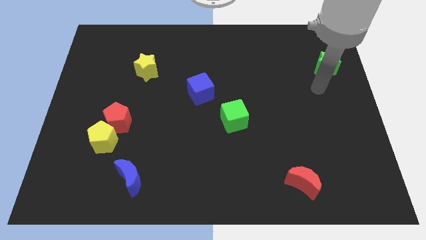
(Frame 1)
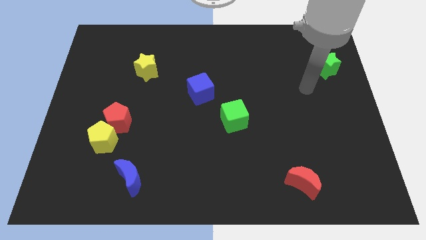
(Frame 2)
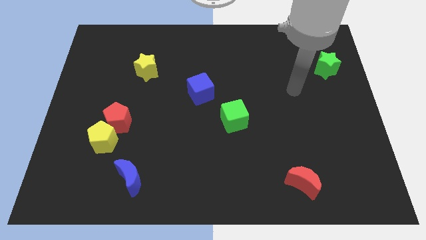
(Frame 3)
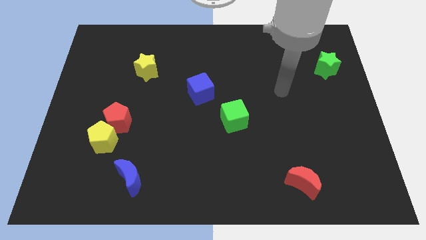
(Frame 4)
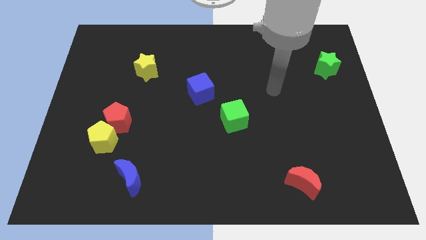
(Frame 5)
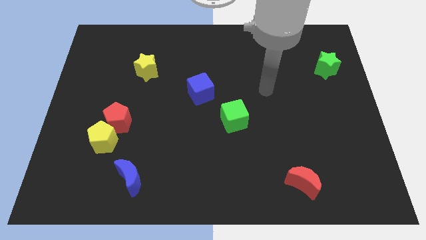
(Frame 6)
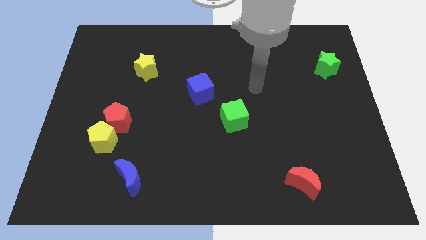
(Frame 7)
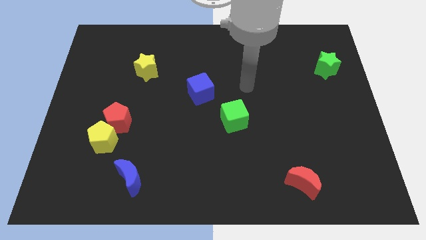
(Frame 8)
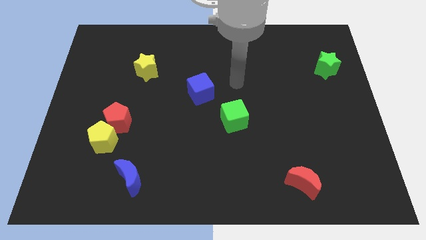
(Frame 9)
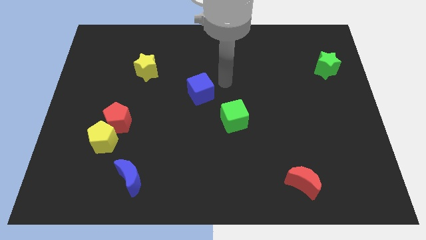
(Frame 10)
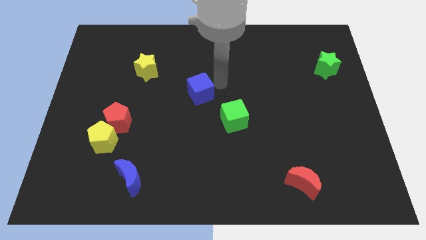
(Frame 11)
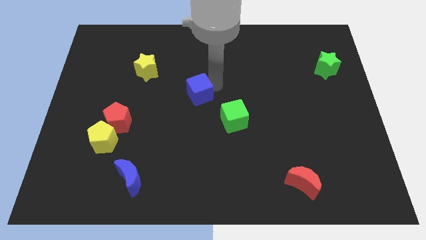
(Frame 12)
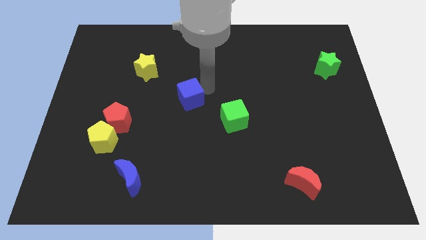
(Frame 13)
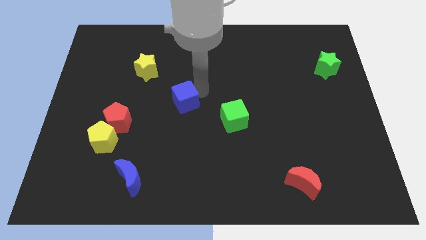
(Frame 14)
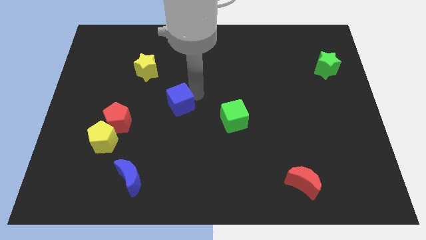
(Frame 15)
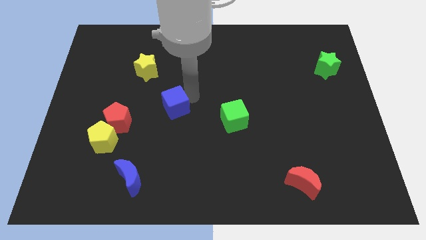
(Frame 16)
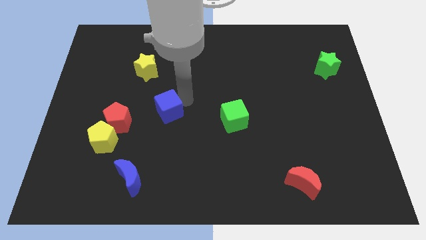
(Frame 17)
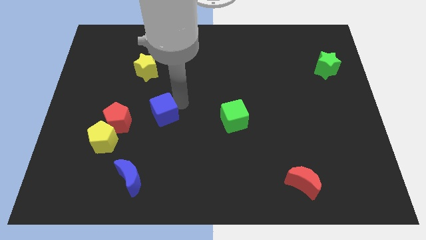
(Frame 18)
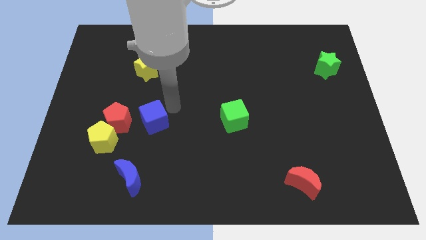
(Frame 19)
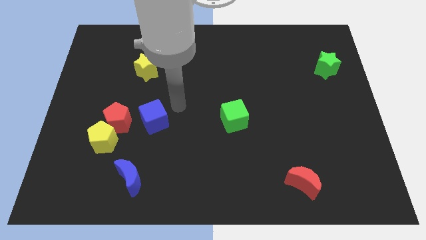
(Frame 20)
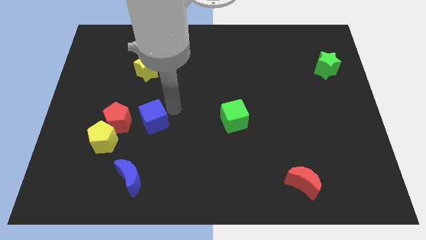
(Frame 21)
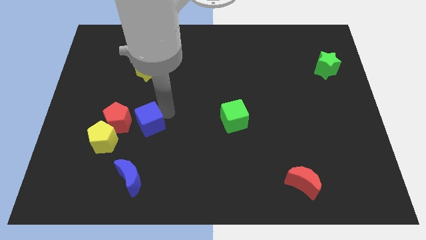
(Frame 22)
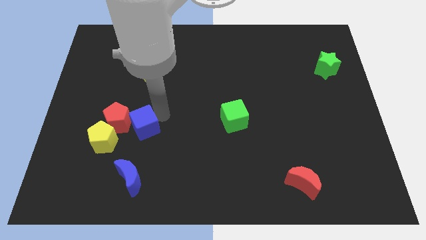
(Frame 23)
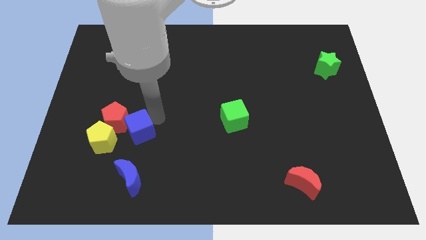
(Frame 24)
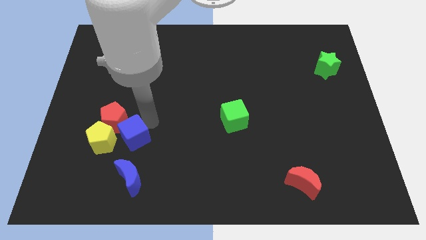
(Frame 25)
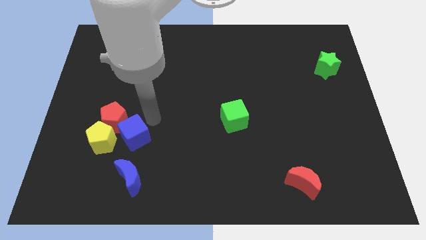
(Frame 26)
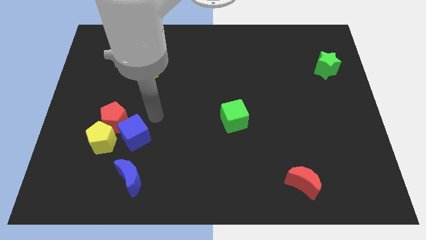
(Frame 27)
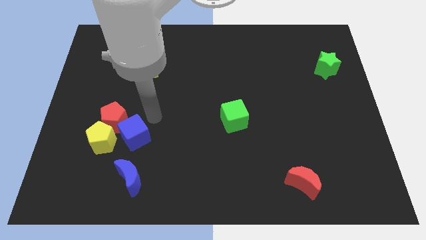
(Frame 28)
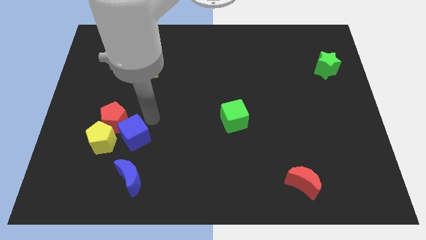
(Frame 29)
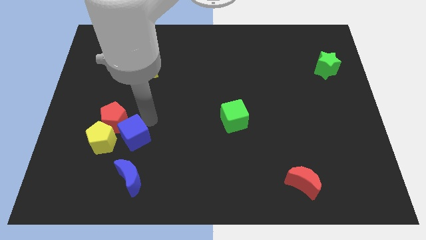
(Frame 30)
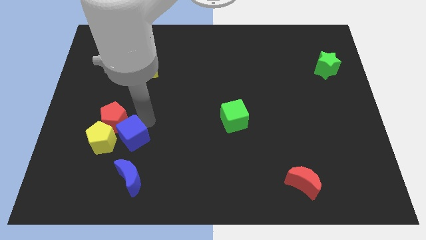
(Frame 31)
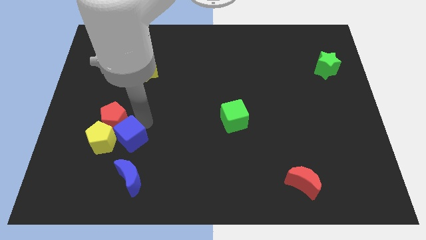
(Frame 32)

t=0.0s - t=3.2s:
push the blue cube down and left

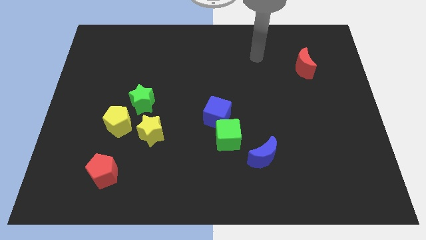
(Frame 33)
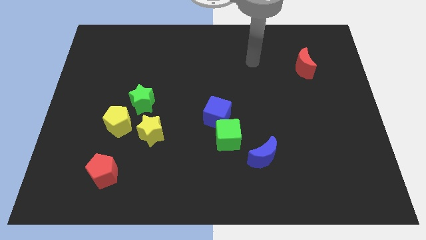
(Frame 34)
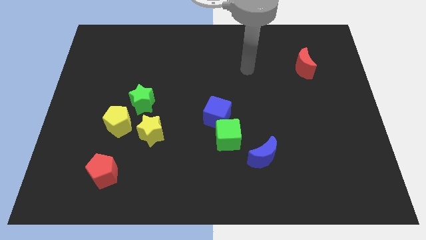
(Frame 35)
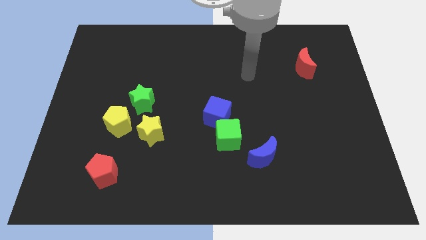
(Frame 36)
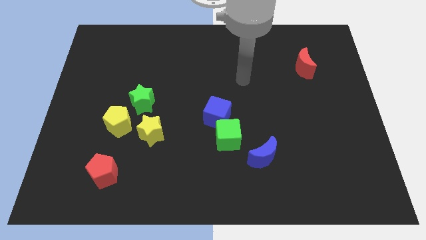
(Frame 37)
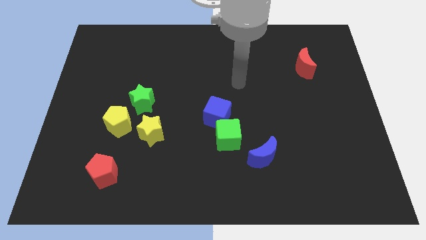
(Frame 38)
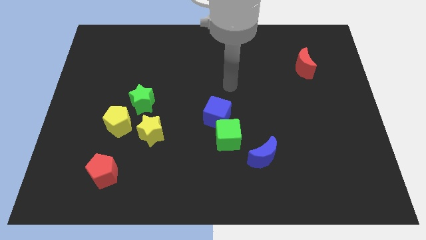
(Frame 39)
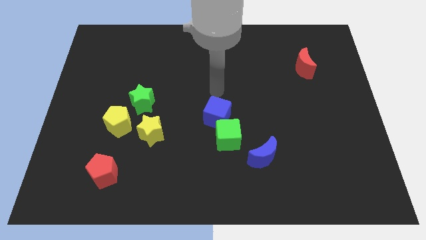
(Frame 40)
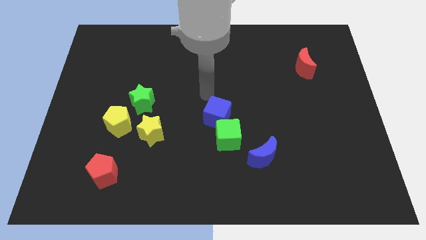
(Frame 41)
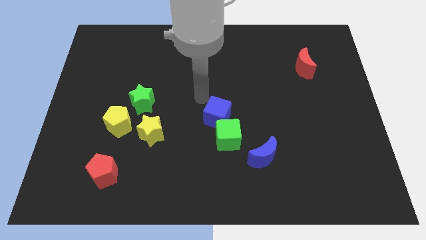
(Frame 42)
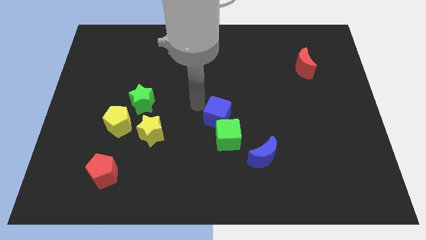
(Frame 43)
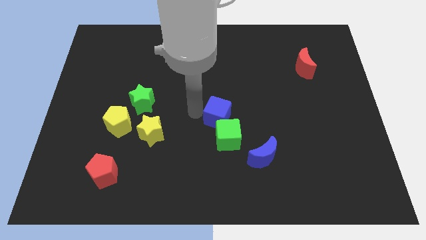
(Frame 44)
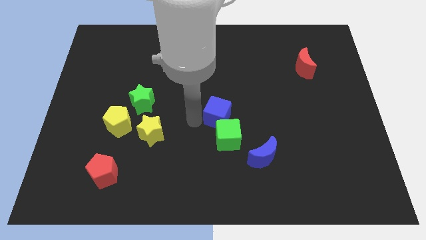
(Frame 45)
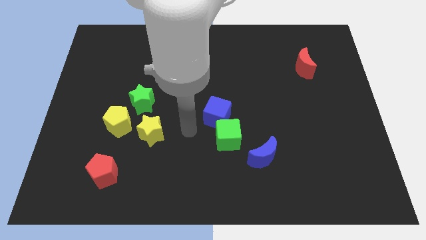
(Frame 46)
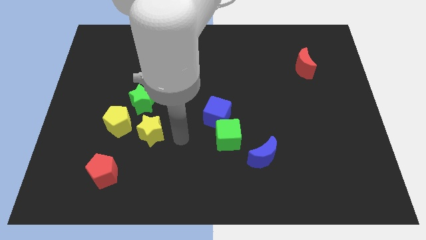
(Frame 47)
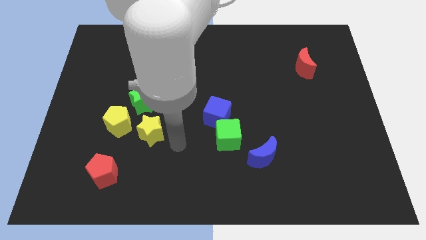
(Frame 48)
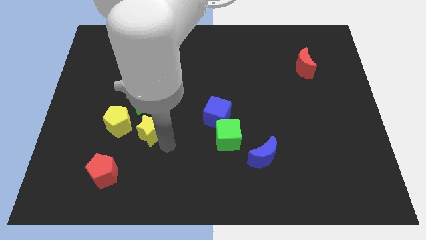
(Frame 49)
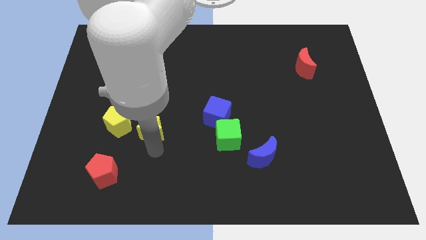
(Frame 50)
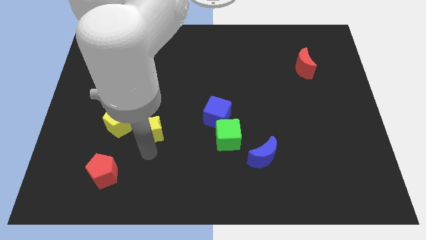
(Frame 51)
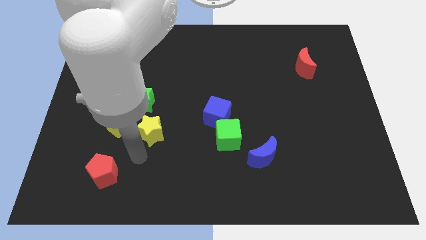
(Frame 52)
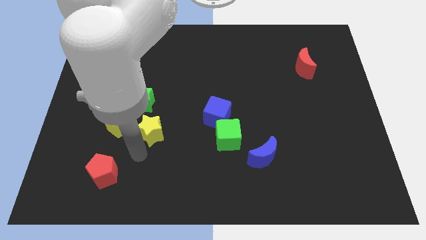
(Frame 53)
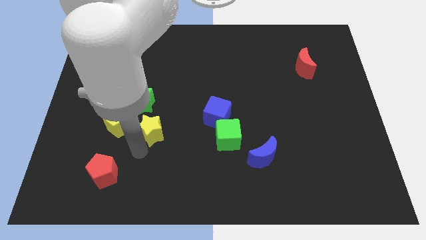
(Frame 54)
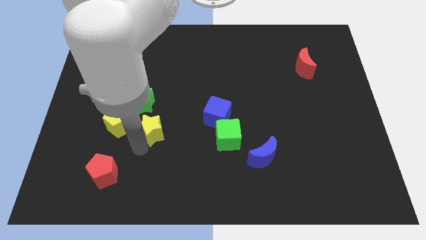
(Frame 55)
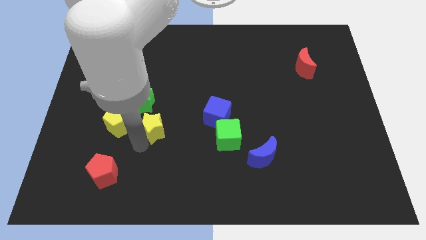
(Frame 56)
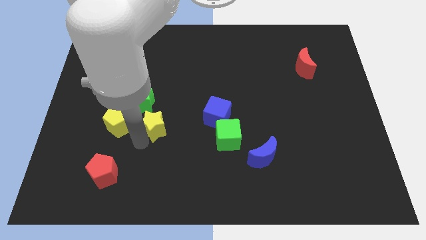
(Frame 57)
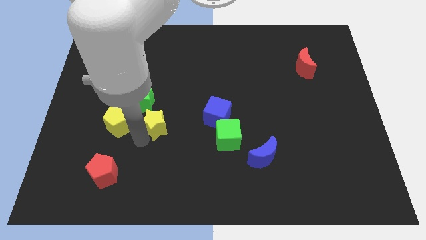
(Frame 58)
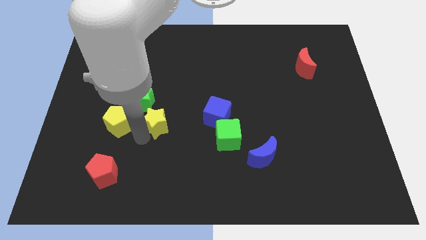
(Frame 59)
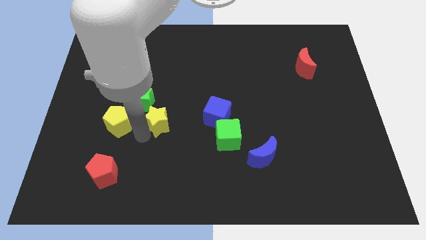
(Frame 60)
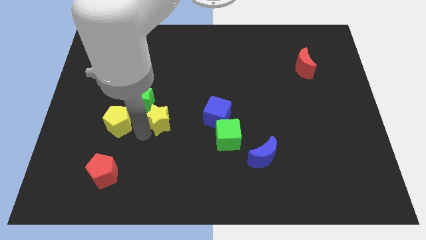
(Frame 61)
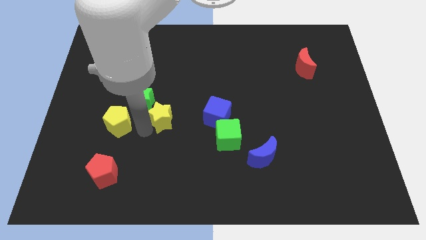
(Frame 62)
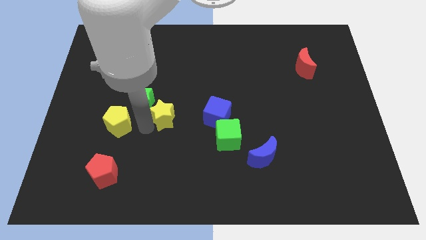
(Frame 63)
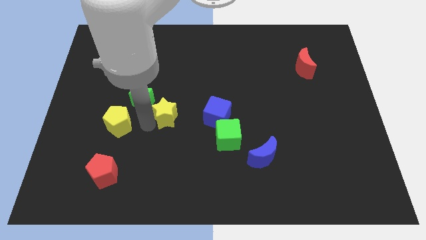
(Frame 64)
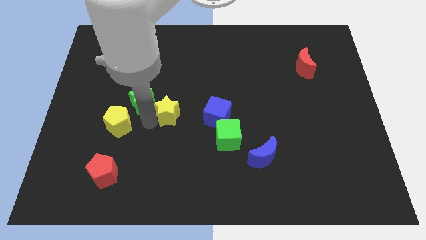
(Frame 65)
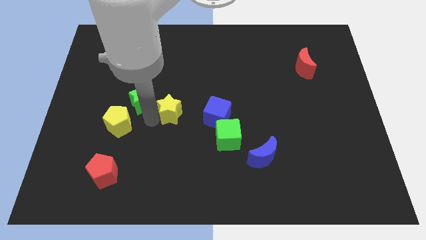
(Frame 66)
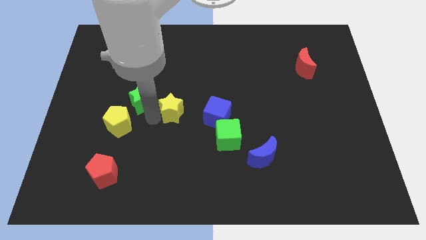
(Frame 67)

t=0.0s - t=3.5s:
slightly move the yellow star upwards and to the right diagonally

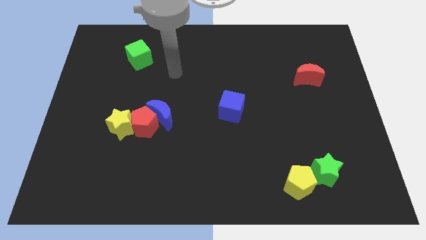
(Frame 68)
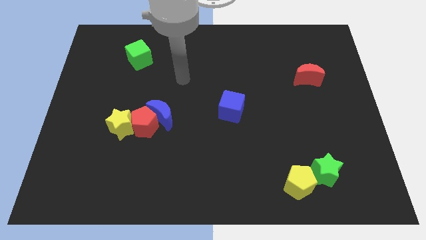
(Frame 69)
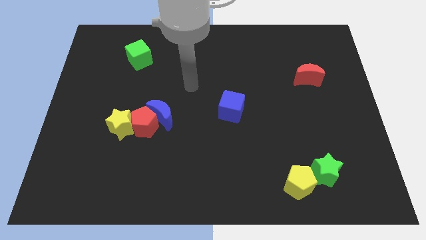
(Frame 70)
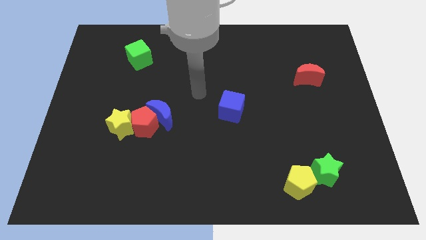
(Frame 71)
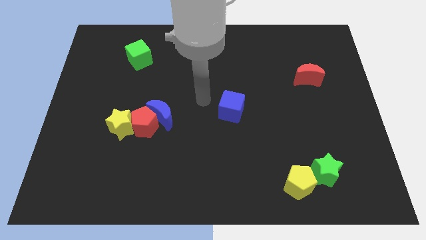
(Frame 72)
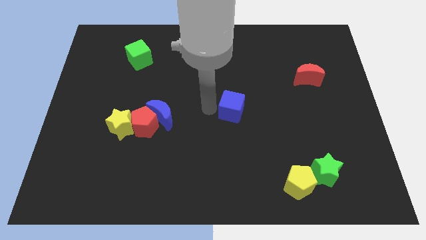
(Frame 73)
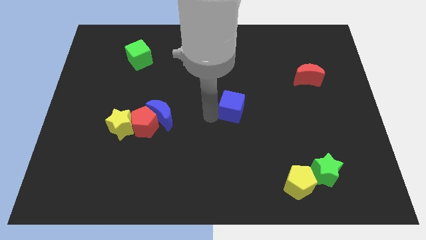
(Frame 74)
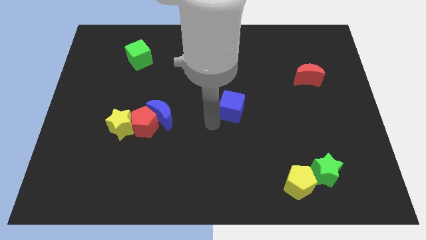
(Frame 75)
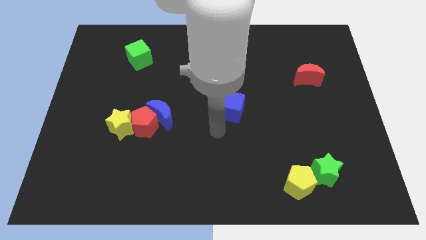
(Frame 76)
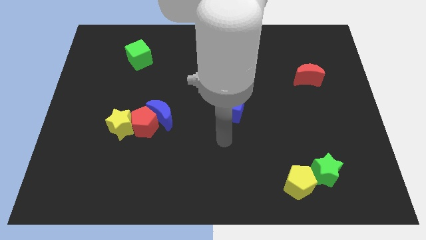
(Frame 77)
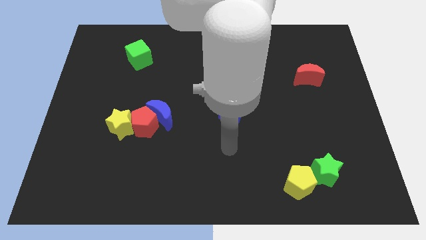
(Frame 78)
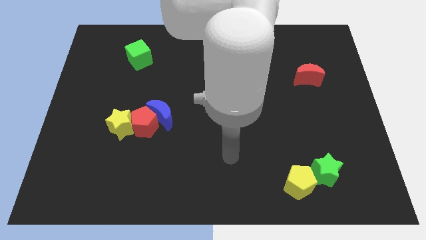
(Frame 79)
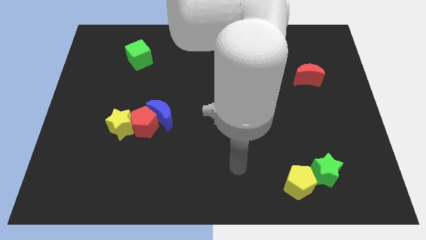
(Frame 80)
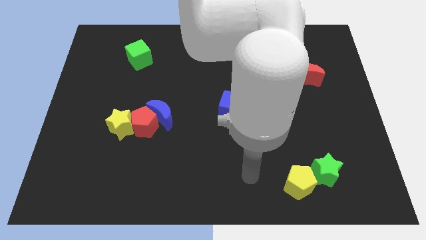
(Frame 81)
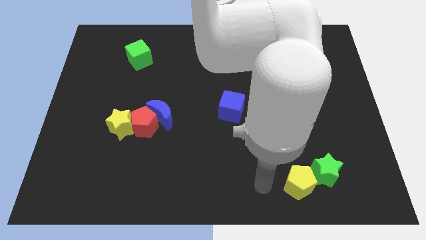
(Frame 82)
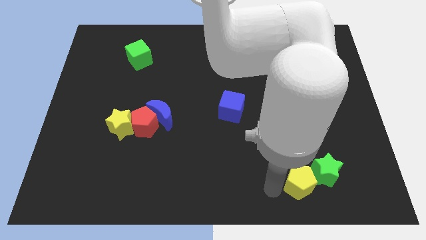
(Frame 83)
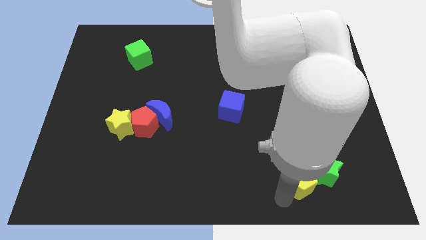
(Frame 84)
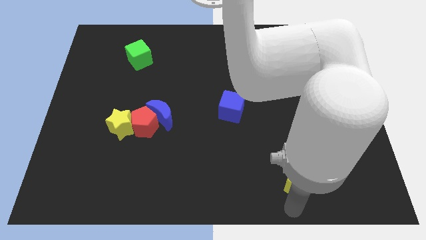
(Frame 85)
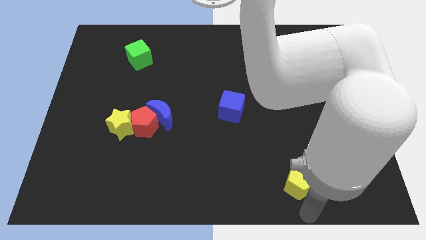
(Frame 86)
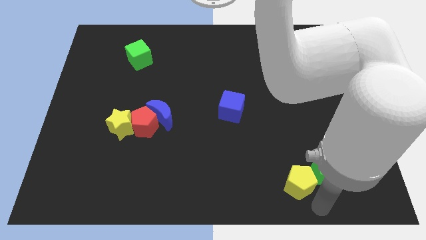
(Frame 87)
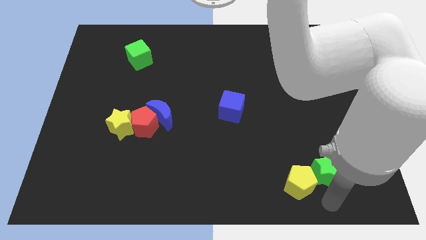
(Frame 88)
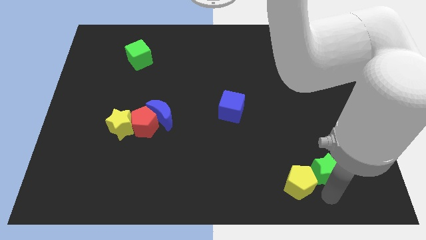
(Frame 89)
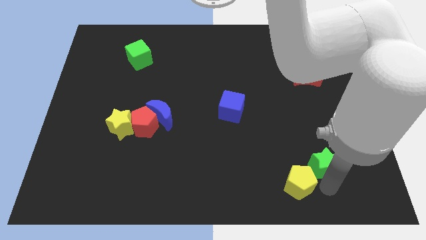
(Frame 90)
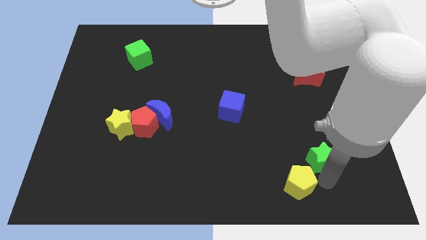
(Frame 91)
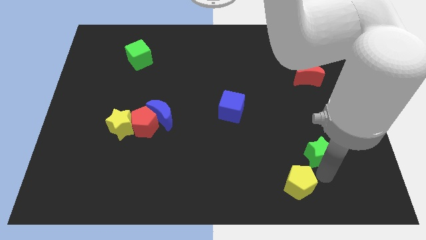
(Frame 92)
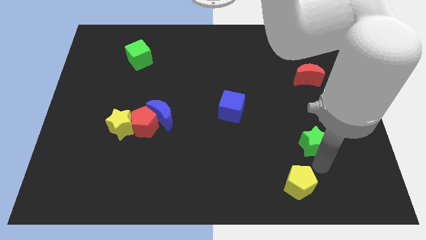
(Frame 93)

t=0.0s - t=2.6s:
push the green star somewhat up
